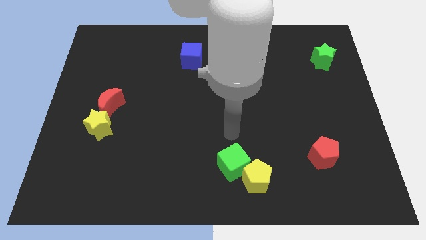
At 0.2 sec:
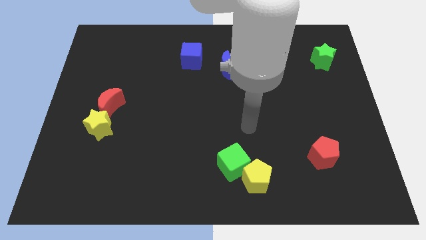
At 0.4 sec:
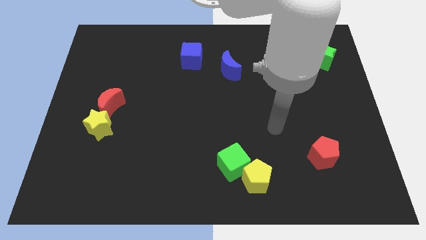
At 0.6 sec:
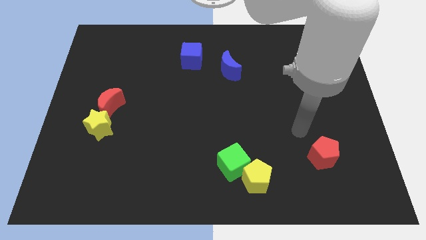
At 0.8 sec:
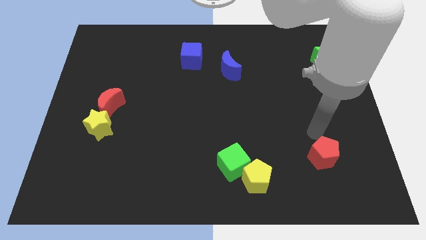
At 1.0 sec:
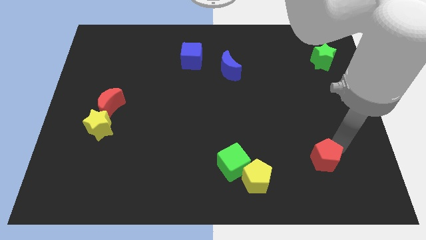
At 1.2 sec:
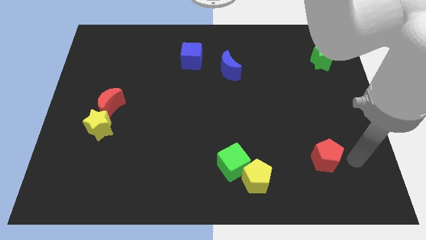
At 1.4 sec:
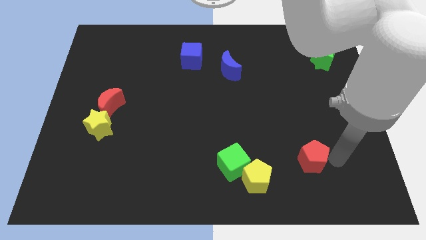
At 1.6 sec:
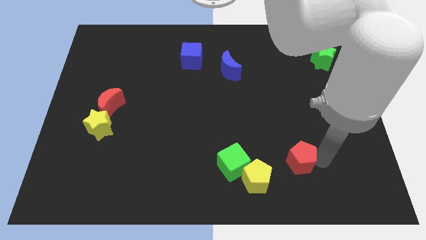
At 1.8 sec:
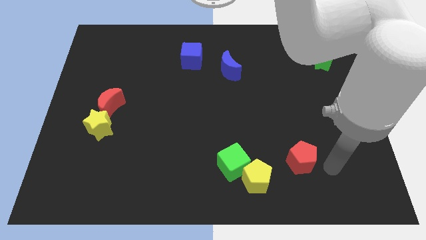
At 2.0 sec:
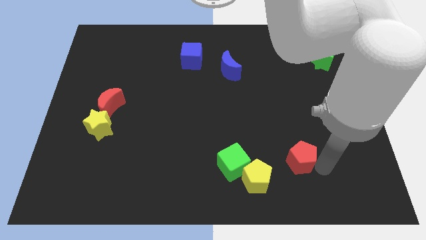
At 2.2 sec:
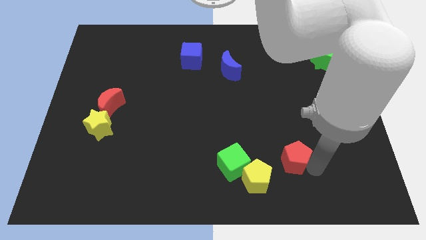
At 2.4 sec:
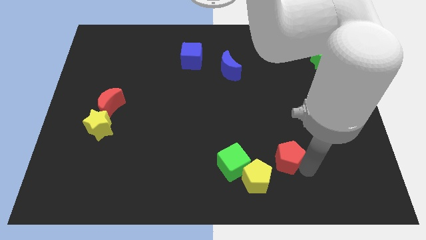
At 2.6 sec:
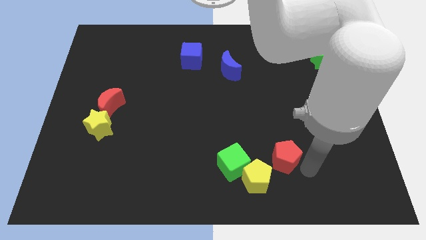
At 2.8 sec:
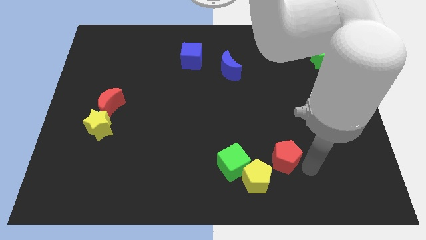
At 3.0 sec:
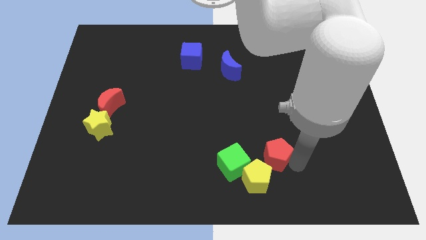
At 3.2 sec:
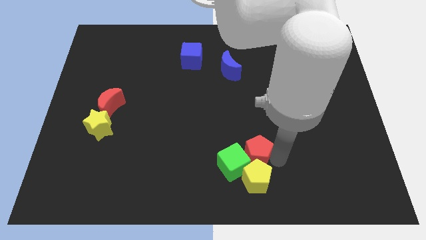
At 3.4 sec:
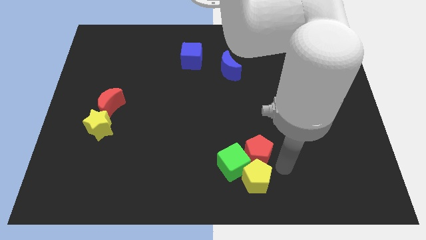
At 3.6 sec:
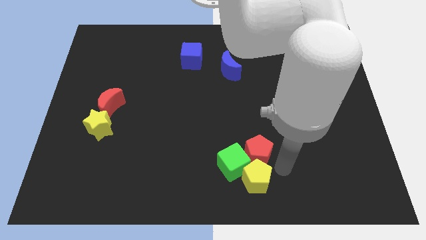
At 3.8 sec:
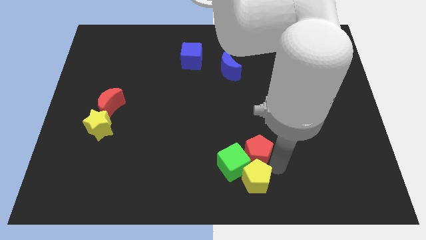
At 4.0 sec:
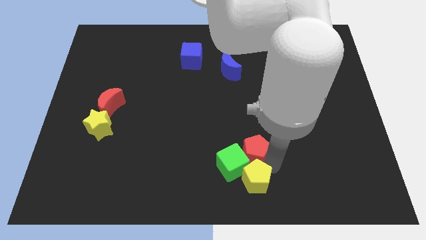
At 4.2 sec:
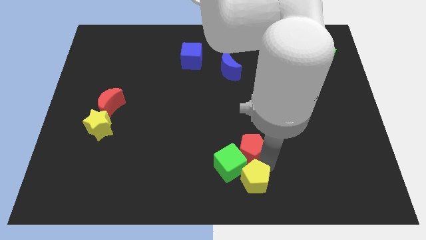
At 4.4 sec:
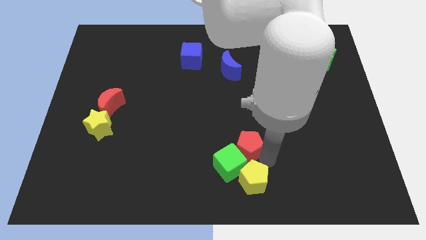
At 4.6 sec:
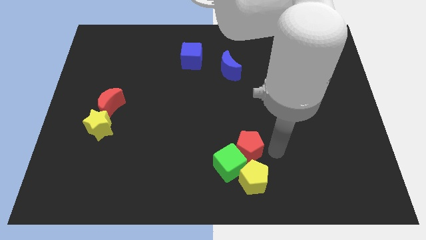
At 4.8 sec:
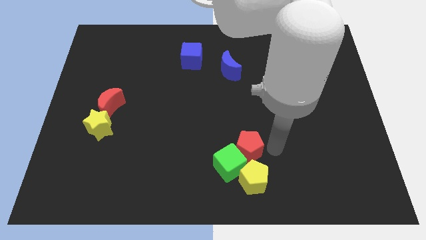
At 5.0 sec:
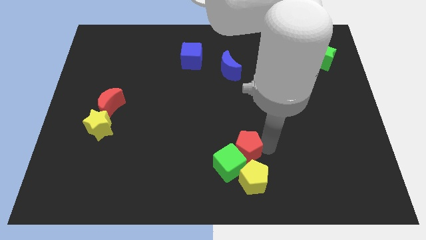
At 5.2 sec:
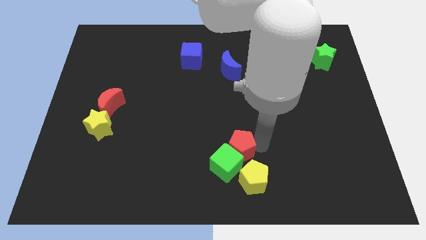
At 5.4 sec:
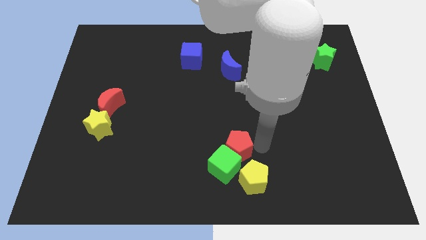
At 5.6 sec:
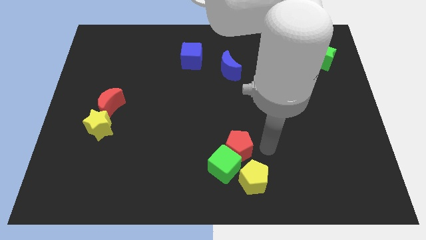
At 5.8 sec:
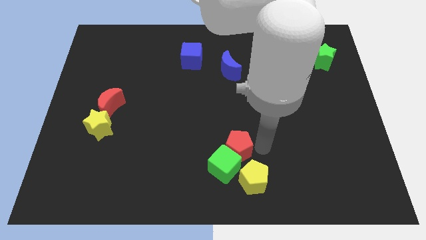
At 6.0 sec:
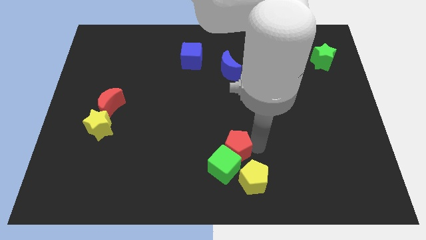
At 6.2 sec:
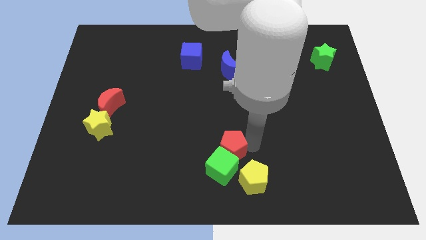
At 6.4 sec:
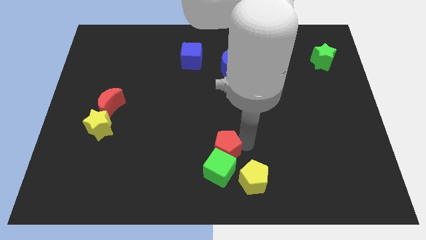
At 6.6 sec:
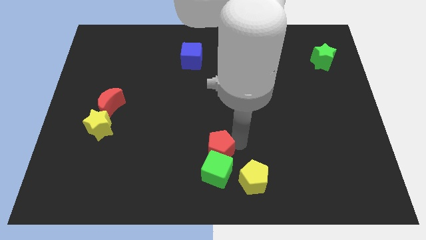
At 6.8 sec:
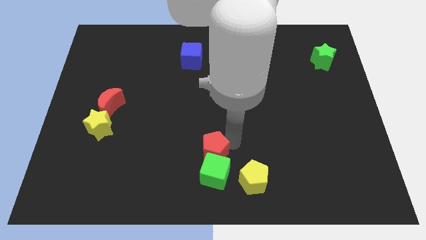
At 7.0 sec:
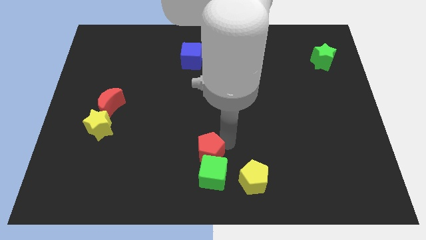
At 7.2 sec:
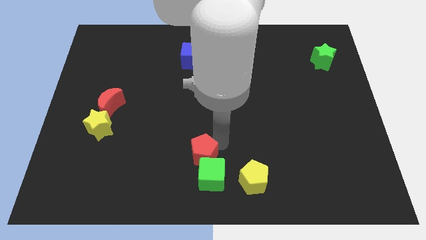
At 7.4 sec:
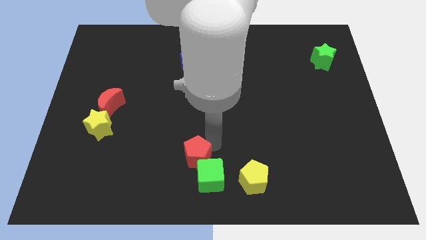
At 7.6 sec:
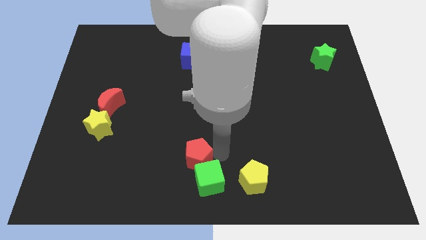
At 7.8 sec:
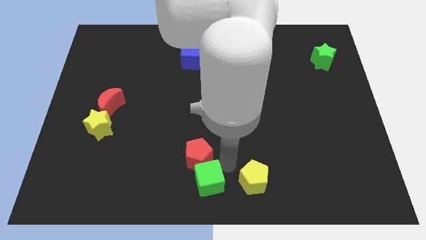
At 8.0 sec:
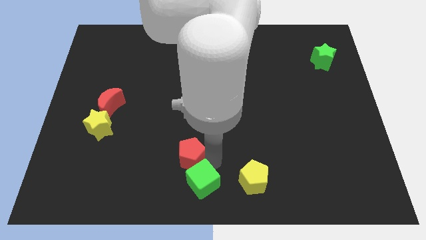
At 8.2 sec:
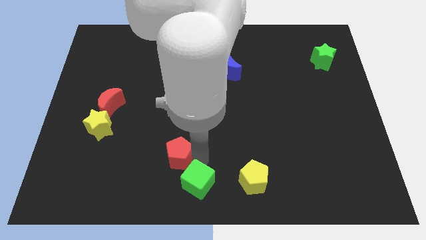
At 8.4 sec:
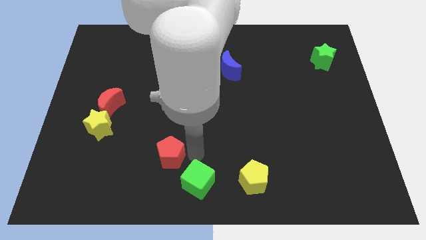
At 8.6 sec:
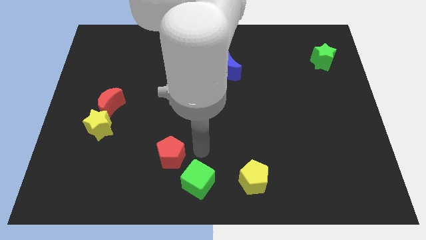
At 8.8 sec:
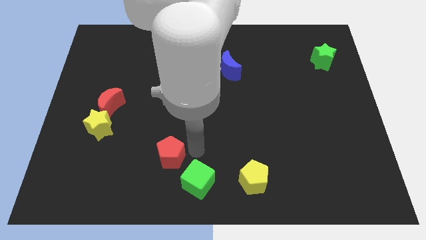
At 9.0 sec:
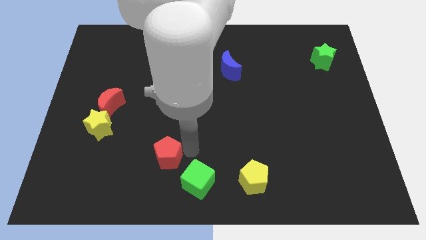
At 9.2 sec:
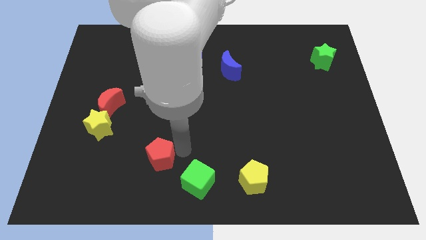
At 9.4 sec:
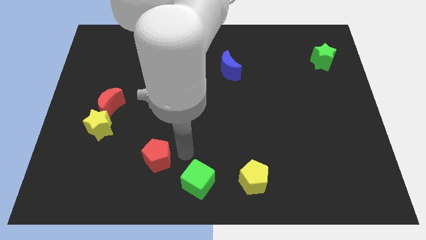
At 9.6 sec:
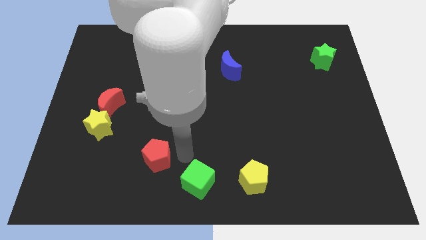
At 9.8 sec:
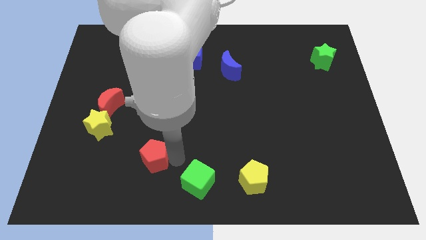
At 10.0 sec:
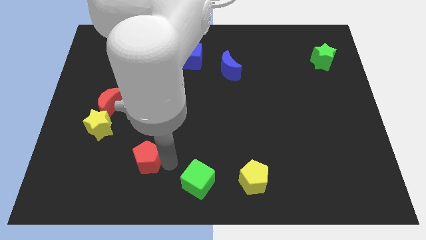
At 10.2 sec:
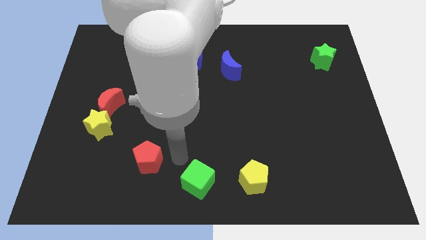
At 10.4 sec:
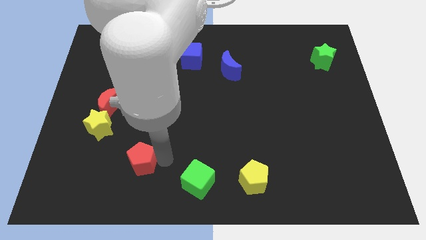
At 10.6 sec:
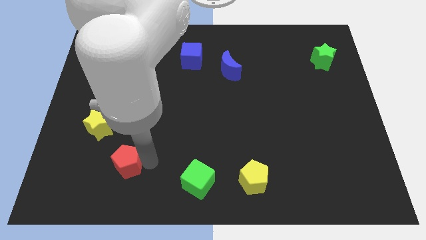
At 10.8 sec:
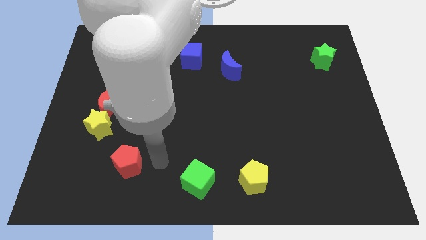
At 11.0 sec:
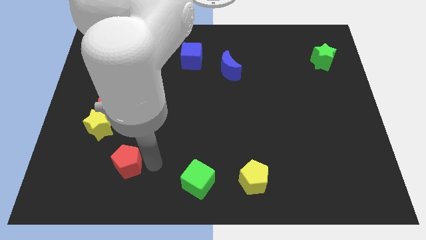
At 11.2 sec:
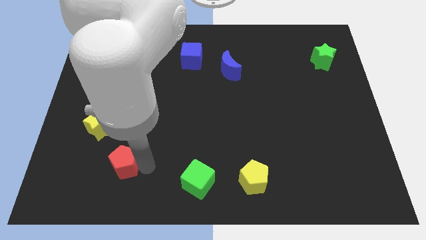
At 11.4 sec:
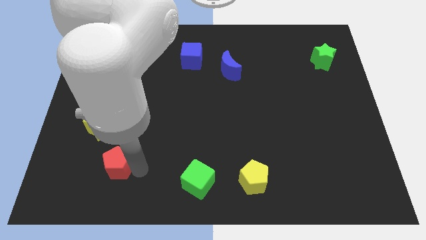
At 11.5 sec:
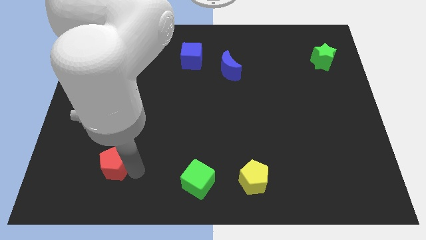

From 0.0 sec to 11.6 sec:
put the red pentagon below the yellow star

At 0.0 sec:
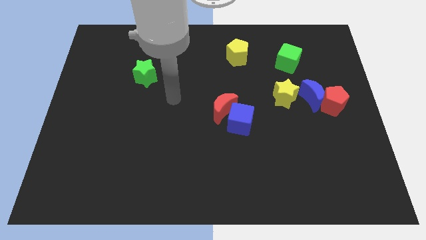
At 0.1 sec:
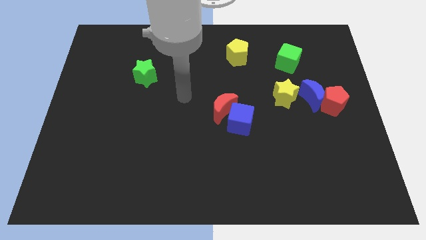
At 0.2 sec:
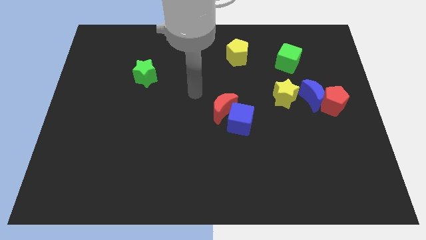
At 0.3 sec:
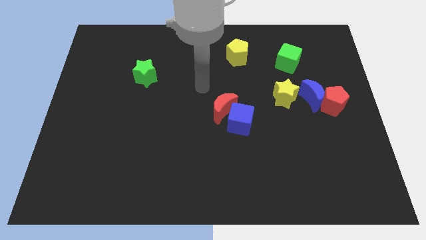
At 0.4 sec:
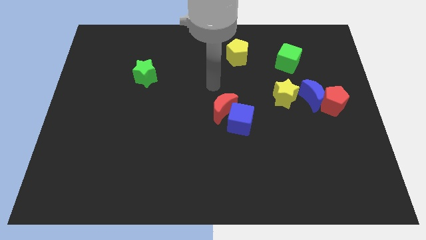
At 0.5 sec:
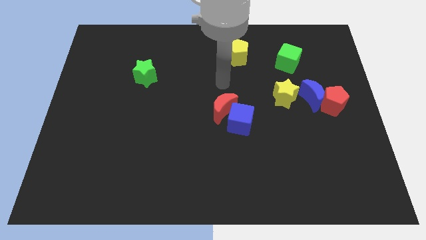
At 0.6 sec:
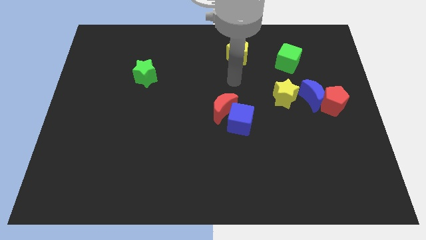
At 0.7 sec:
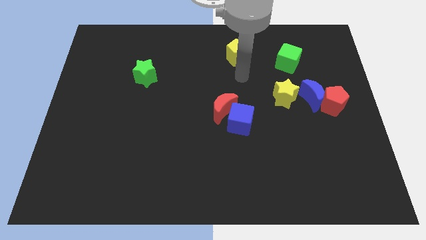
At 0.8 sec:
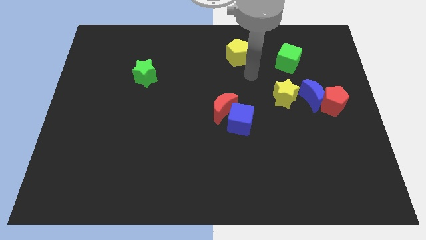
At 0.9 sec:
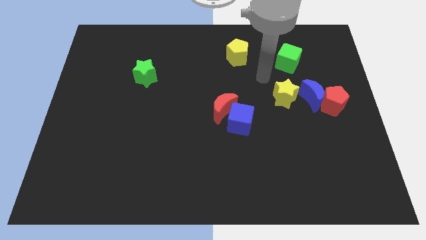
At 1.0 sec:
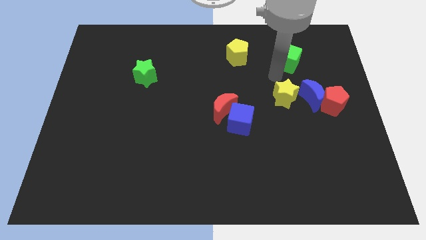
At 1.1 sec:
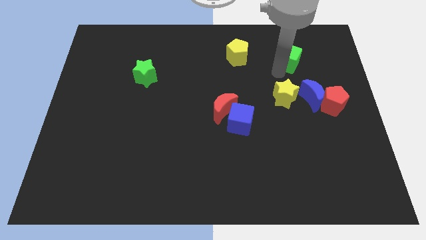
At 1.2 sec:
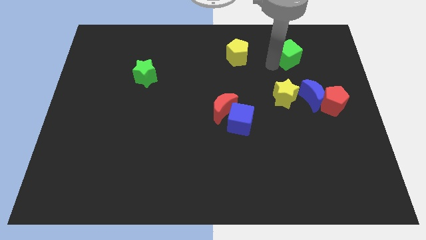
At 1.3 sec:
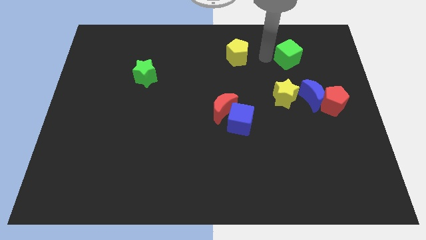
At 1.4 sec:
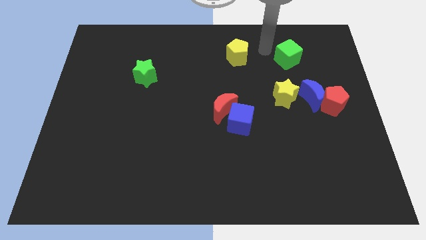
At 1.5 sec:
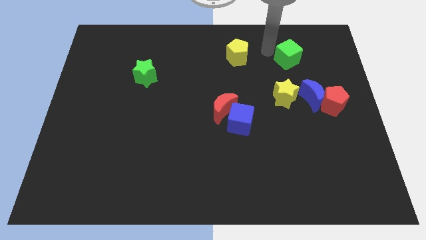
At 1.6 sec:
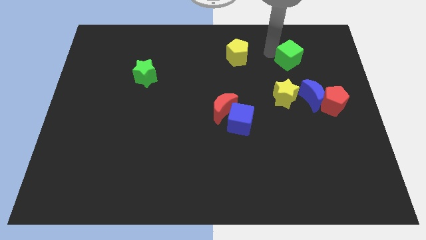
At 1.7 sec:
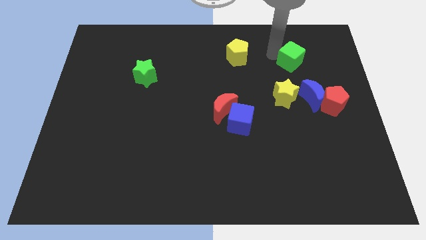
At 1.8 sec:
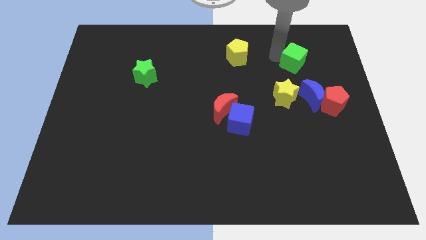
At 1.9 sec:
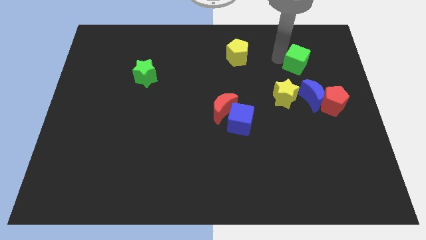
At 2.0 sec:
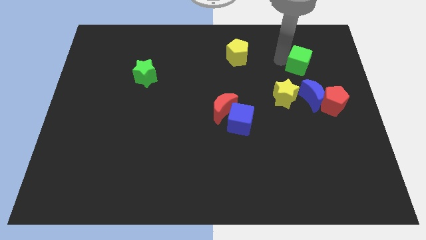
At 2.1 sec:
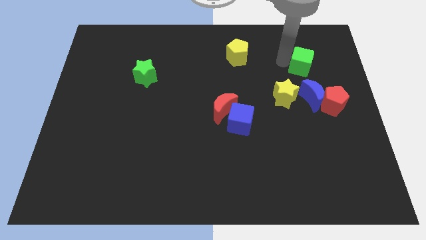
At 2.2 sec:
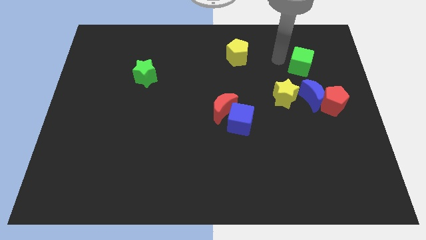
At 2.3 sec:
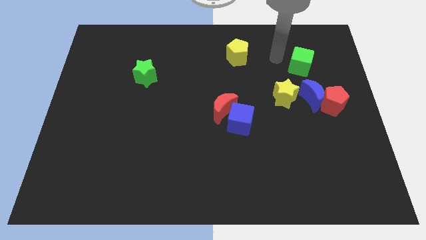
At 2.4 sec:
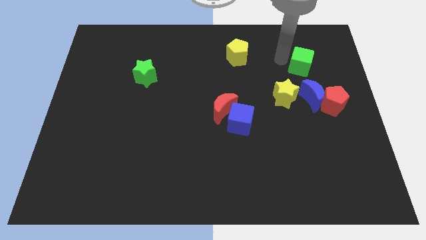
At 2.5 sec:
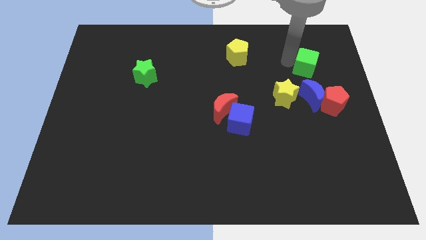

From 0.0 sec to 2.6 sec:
slide the green cube to the top of the red pentagon
